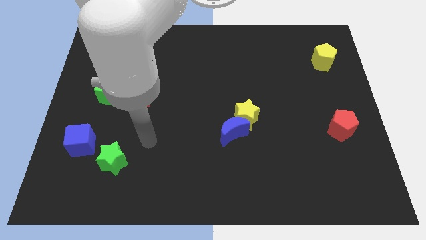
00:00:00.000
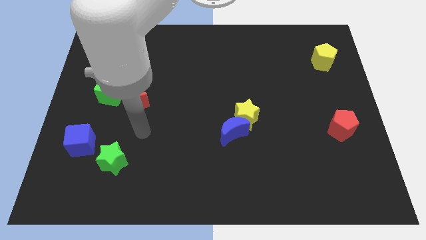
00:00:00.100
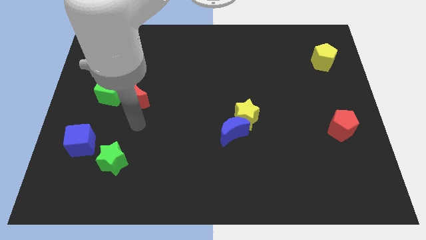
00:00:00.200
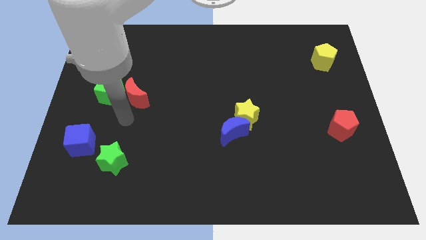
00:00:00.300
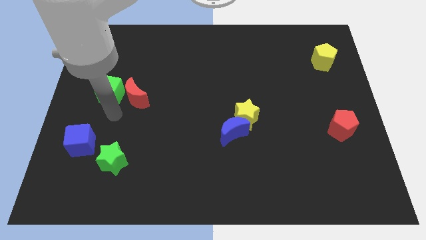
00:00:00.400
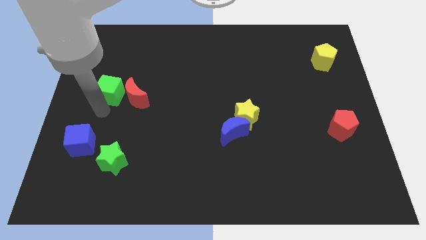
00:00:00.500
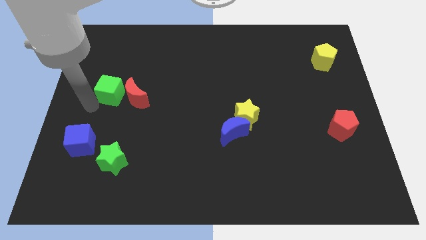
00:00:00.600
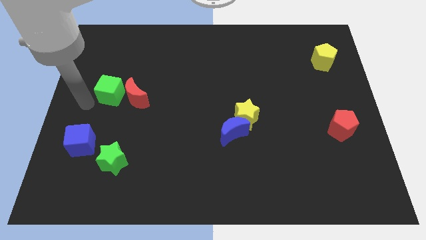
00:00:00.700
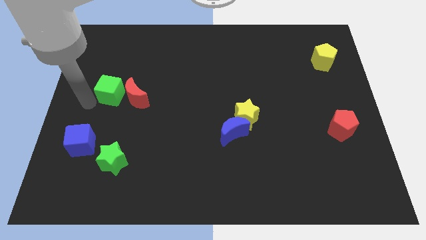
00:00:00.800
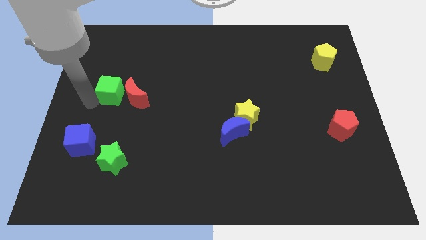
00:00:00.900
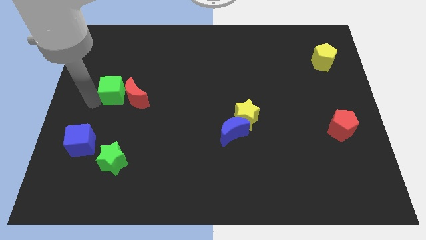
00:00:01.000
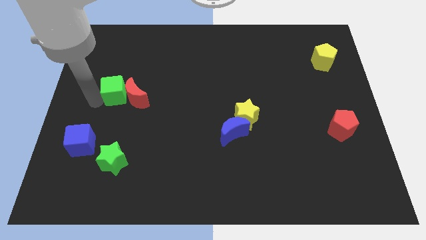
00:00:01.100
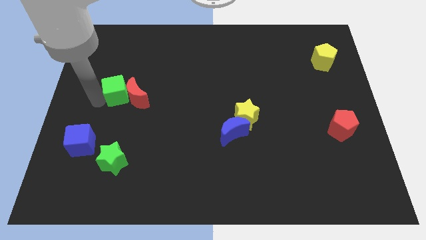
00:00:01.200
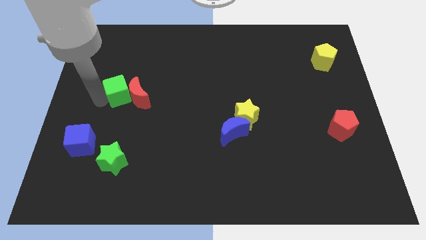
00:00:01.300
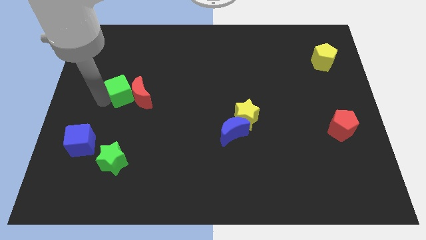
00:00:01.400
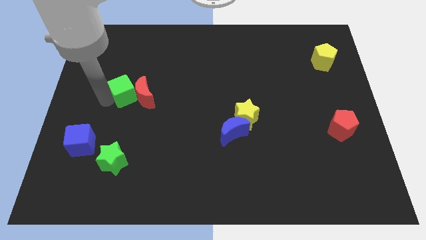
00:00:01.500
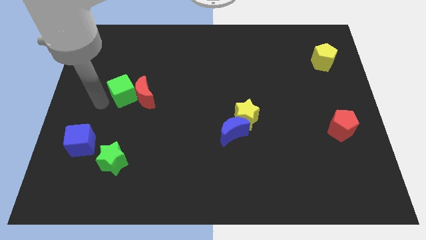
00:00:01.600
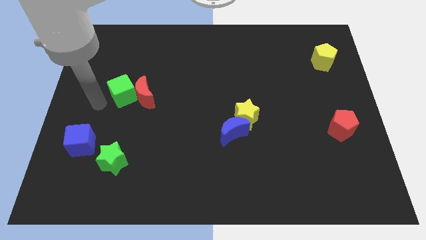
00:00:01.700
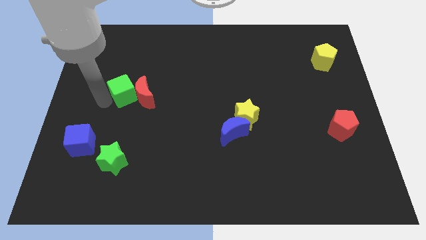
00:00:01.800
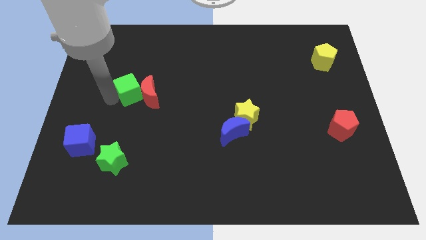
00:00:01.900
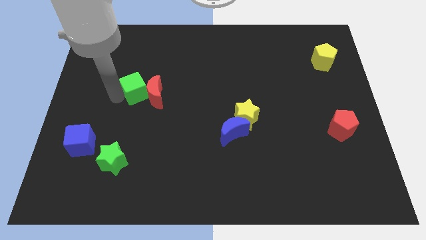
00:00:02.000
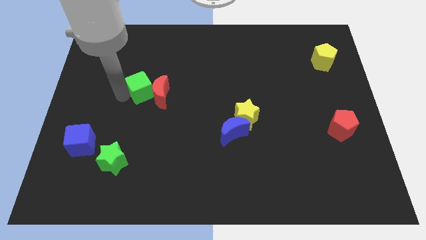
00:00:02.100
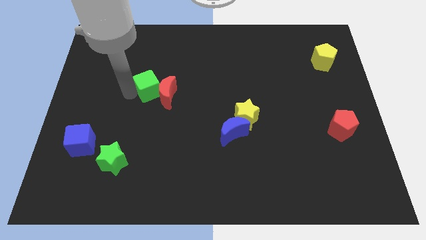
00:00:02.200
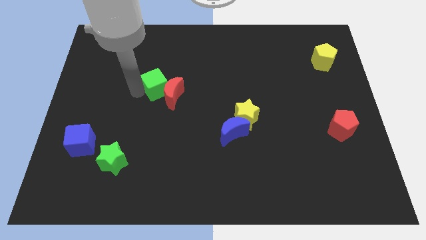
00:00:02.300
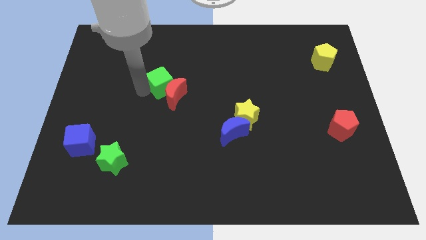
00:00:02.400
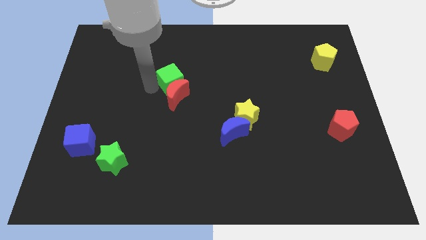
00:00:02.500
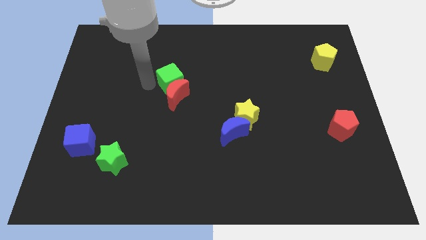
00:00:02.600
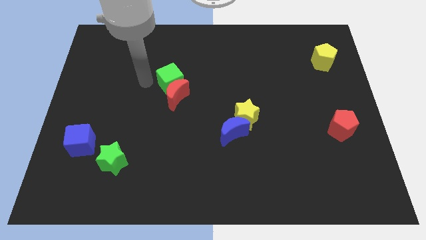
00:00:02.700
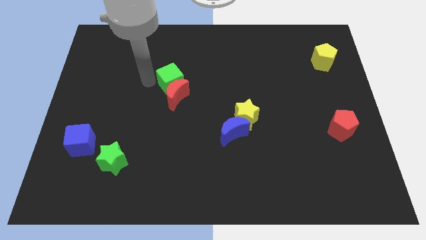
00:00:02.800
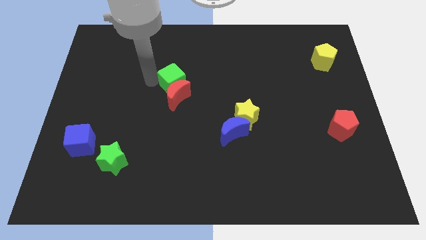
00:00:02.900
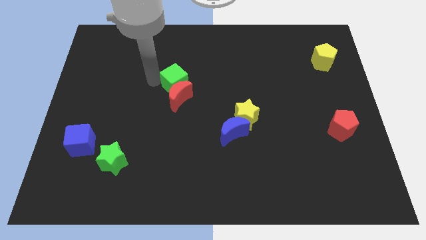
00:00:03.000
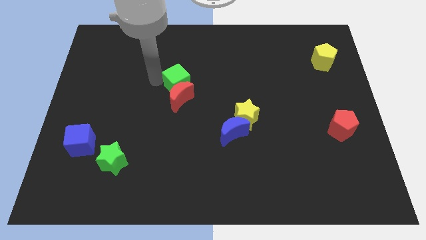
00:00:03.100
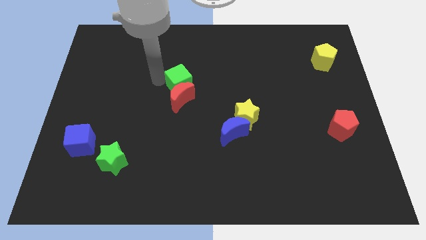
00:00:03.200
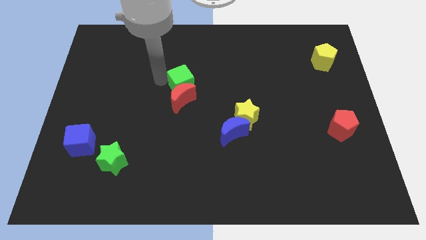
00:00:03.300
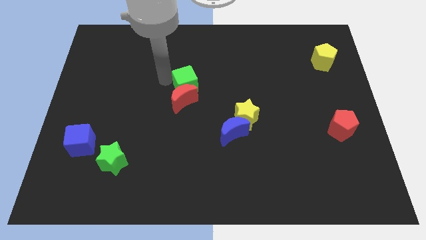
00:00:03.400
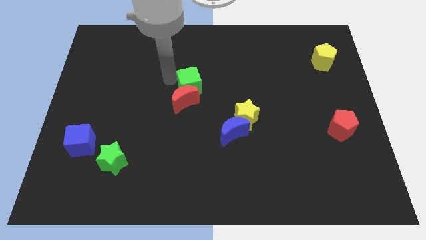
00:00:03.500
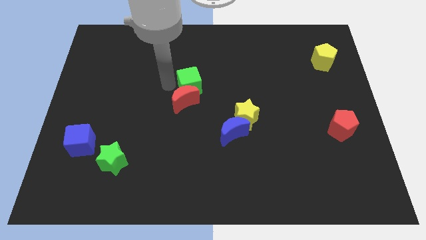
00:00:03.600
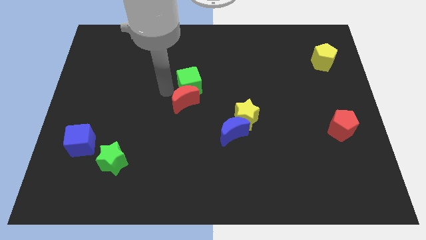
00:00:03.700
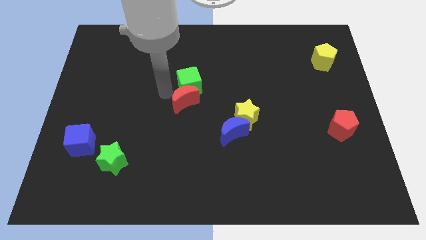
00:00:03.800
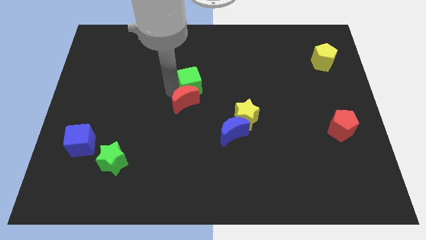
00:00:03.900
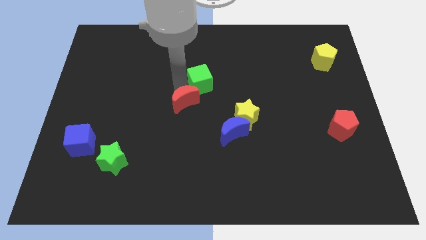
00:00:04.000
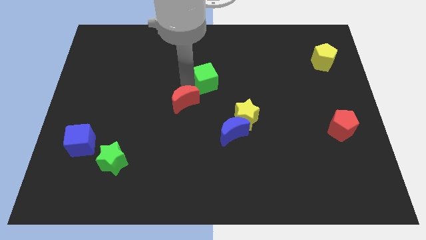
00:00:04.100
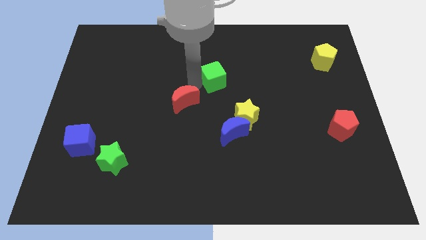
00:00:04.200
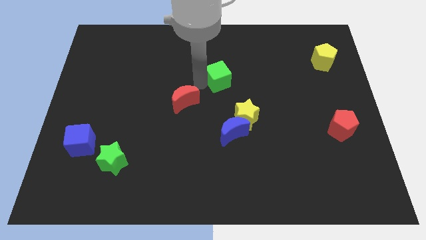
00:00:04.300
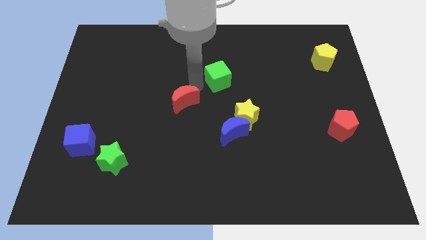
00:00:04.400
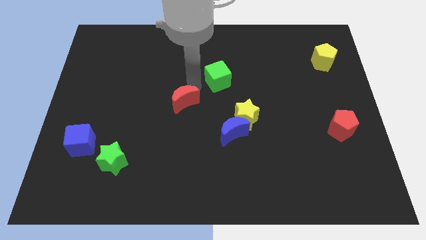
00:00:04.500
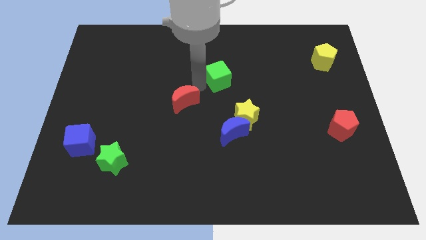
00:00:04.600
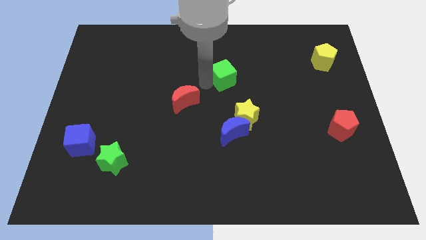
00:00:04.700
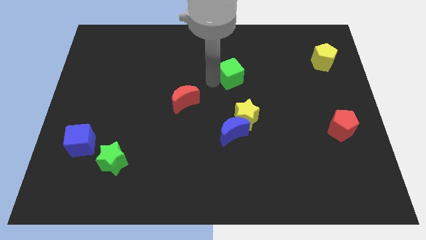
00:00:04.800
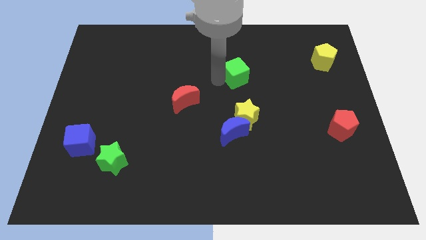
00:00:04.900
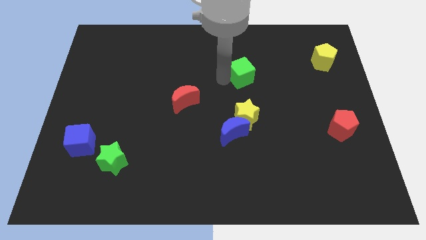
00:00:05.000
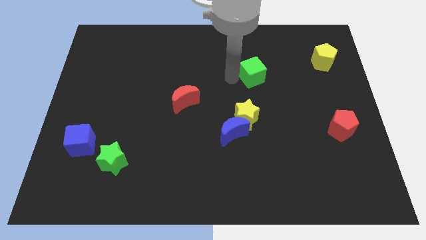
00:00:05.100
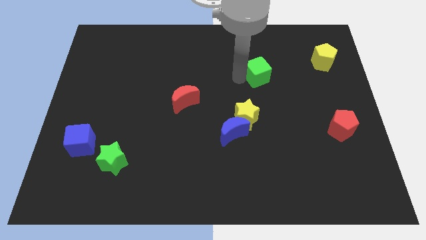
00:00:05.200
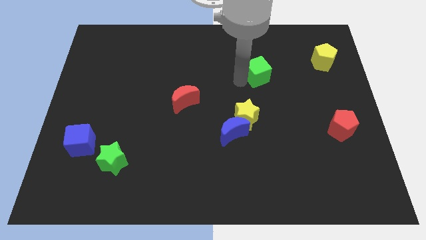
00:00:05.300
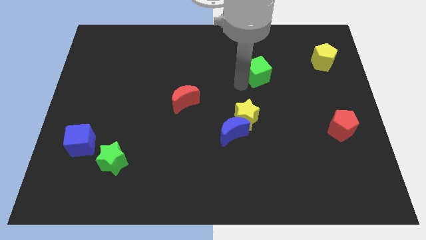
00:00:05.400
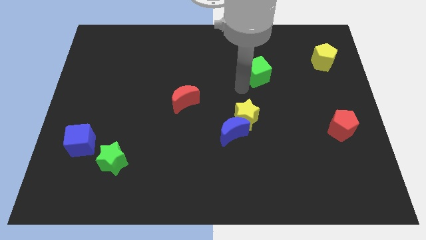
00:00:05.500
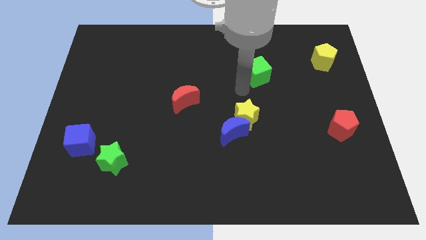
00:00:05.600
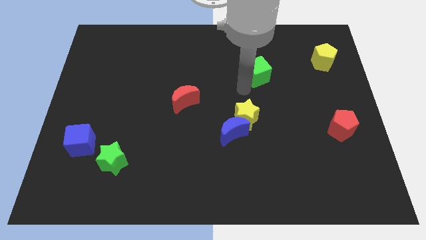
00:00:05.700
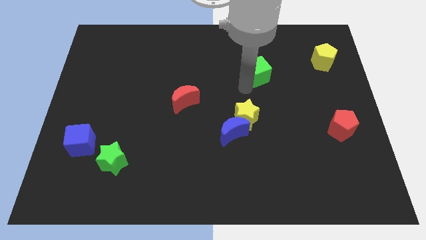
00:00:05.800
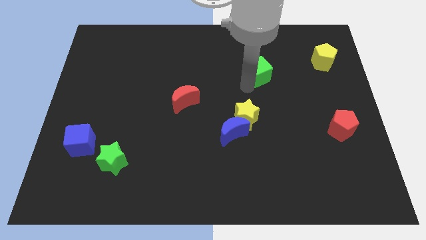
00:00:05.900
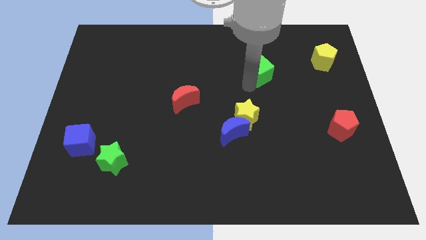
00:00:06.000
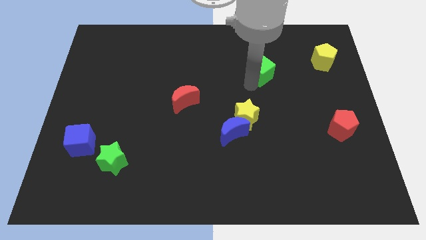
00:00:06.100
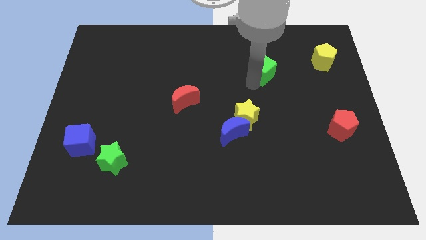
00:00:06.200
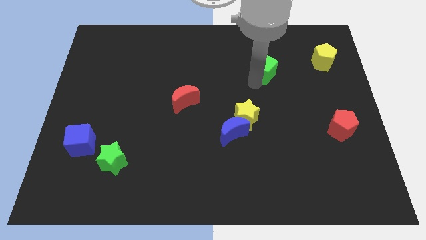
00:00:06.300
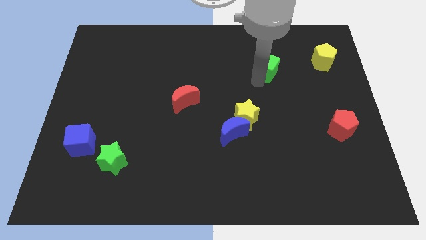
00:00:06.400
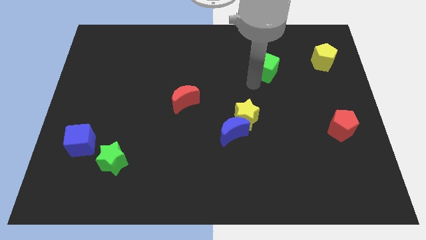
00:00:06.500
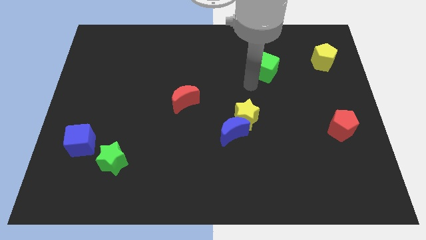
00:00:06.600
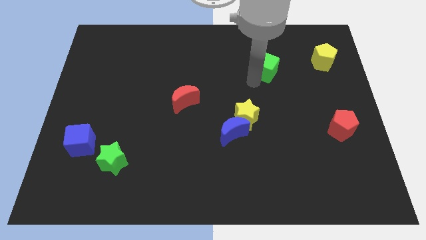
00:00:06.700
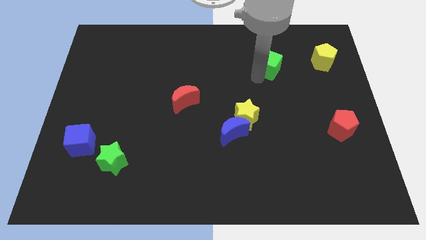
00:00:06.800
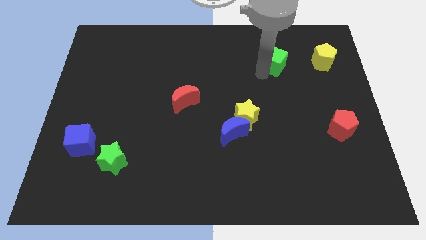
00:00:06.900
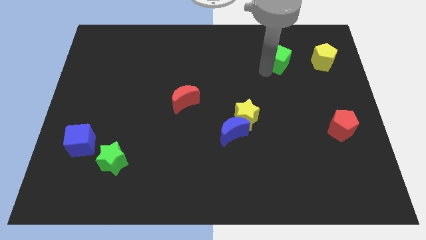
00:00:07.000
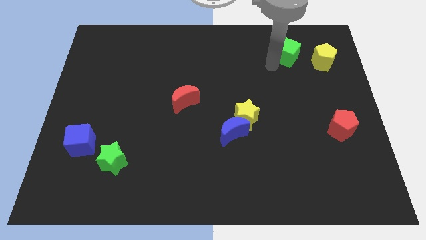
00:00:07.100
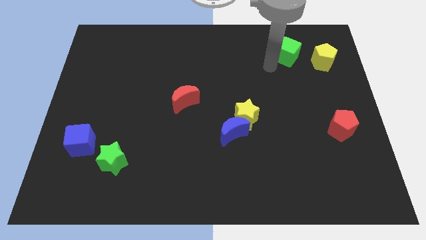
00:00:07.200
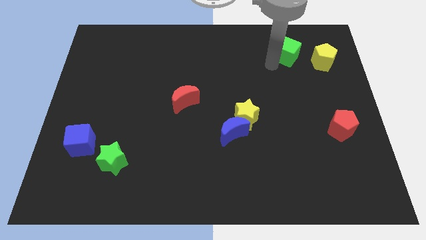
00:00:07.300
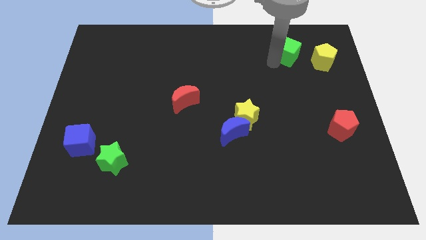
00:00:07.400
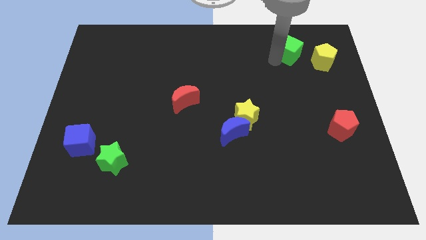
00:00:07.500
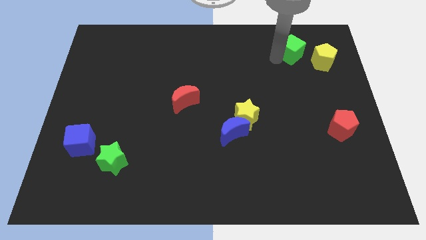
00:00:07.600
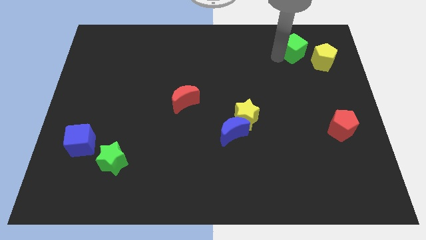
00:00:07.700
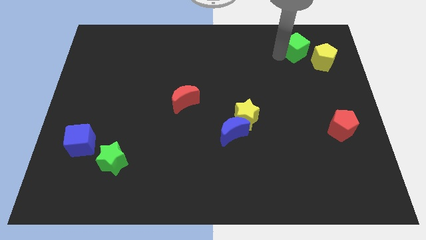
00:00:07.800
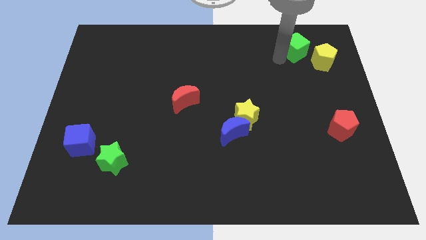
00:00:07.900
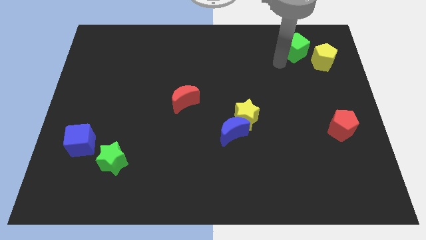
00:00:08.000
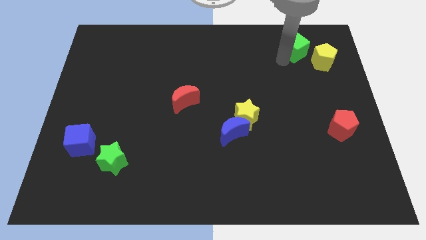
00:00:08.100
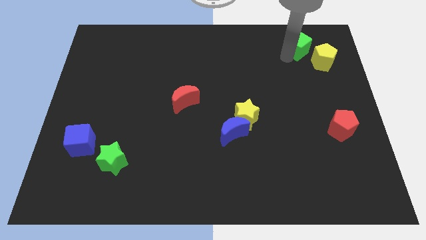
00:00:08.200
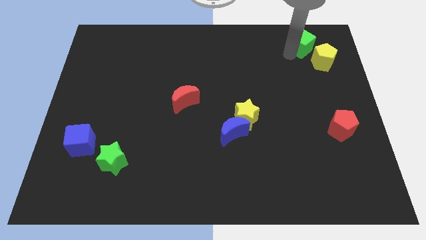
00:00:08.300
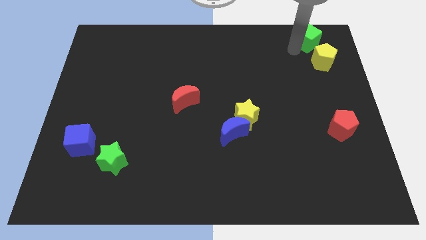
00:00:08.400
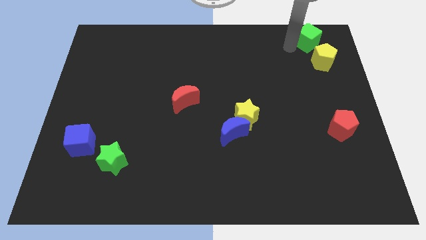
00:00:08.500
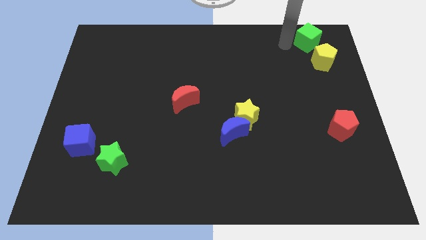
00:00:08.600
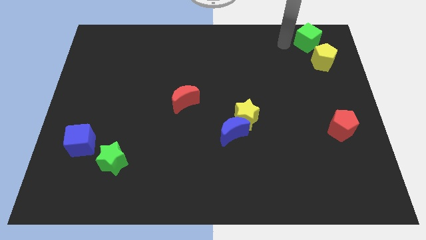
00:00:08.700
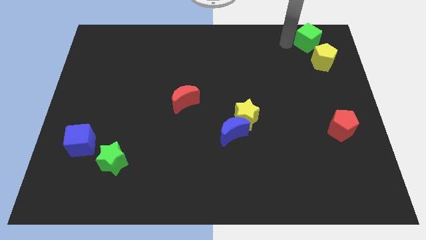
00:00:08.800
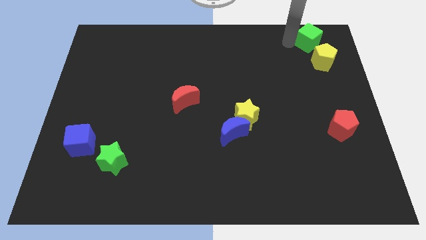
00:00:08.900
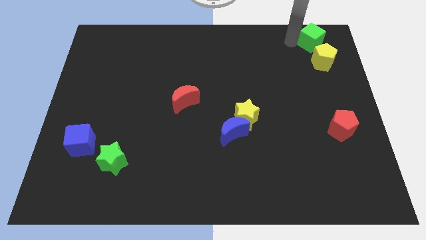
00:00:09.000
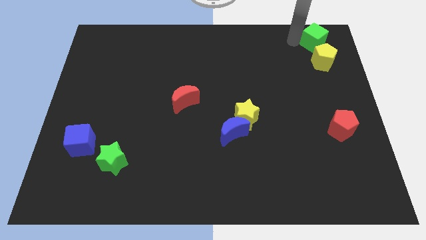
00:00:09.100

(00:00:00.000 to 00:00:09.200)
move the green cube to the top right
